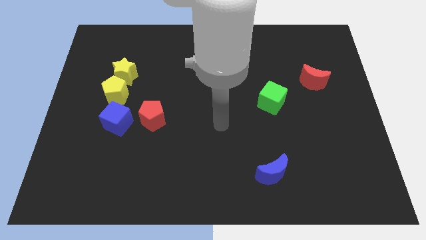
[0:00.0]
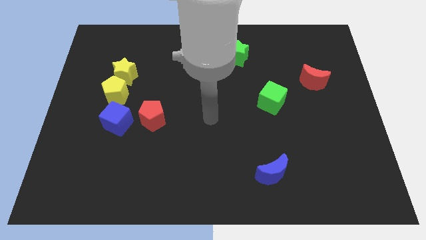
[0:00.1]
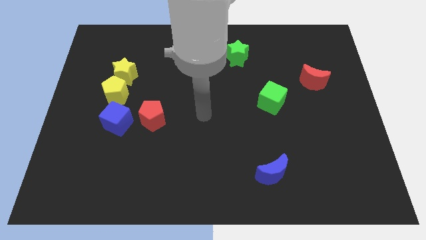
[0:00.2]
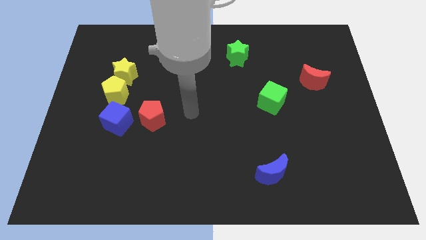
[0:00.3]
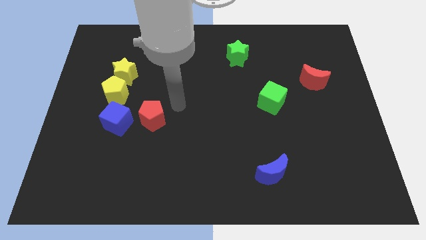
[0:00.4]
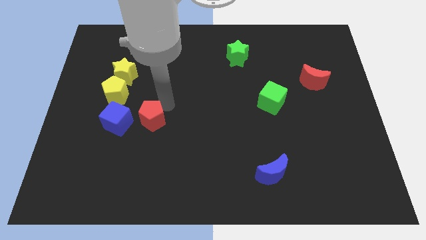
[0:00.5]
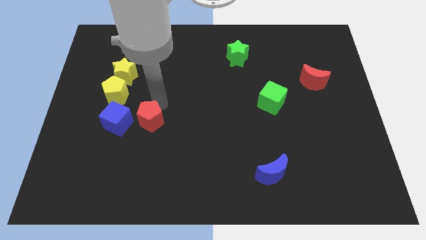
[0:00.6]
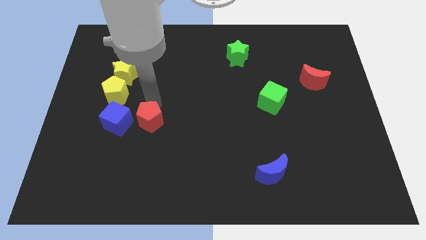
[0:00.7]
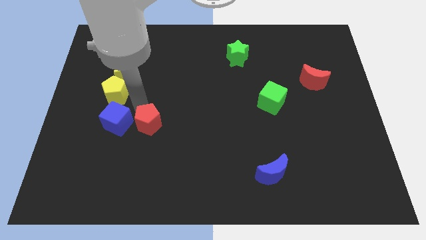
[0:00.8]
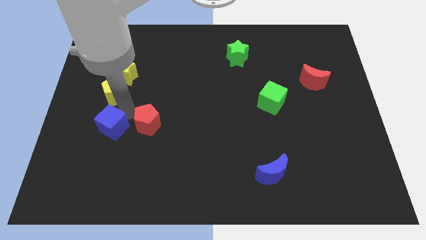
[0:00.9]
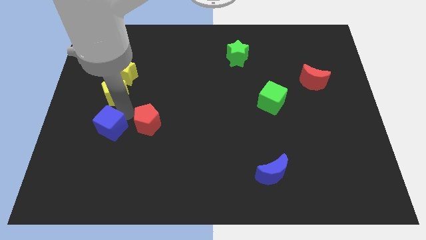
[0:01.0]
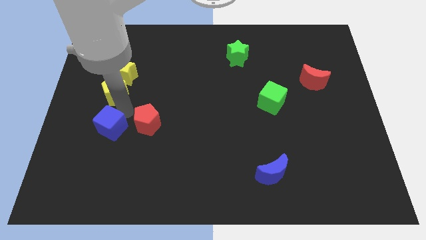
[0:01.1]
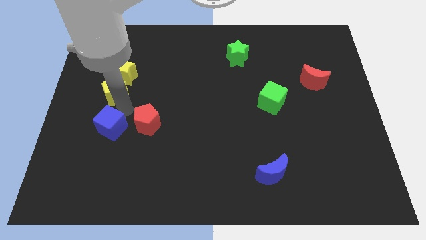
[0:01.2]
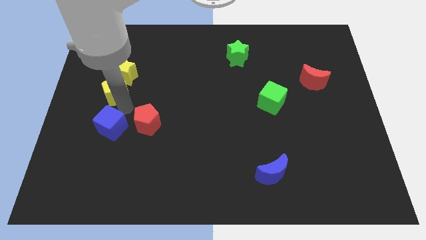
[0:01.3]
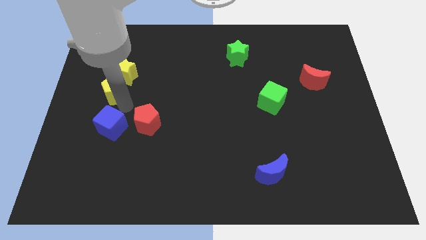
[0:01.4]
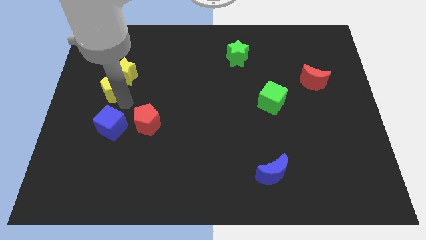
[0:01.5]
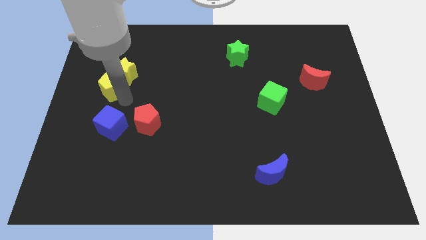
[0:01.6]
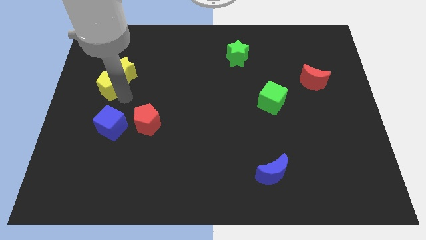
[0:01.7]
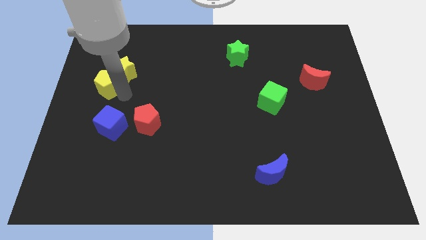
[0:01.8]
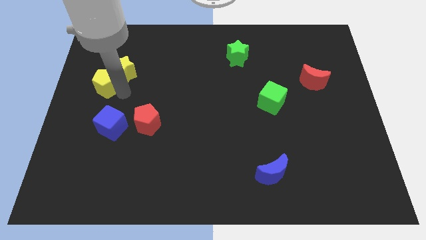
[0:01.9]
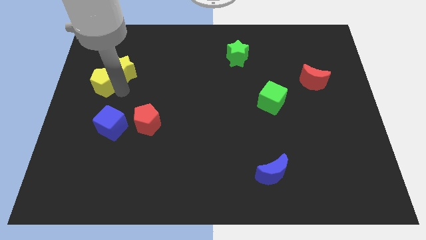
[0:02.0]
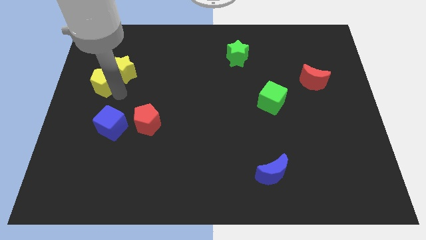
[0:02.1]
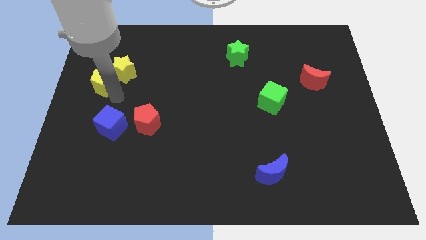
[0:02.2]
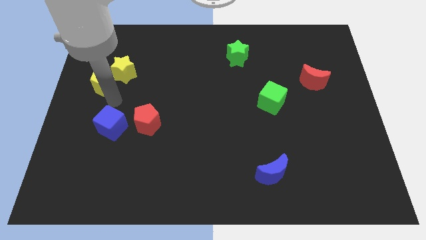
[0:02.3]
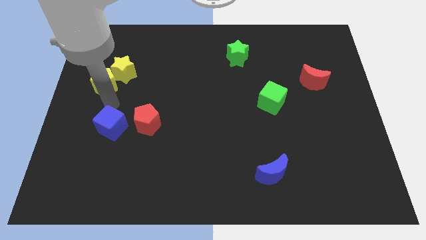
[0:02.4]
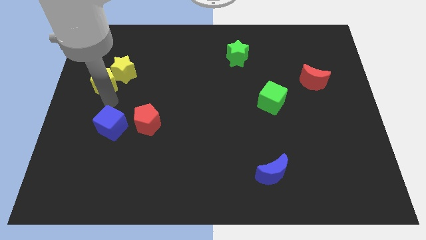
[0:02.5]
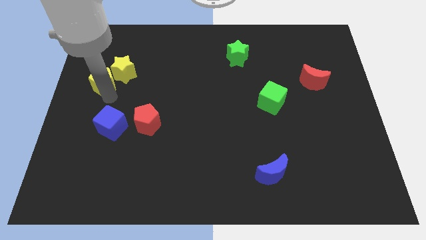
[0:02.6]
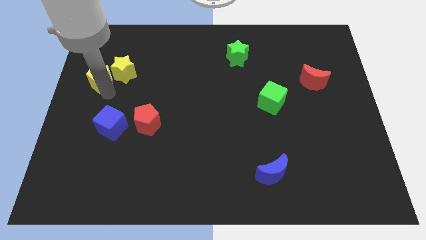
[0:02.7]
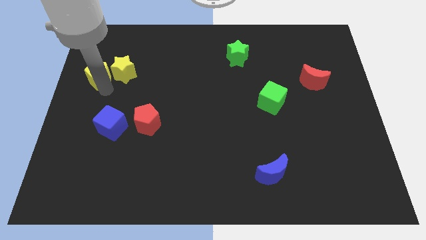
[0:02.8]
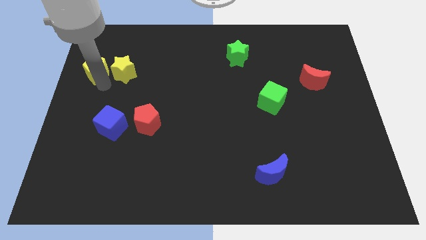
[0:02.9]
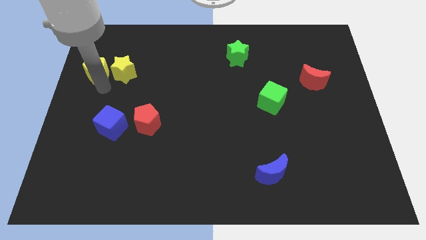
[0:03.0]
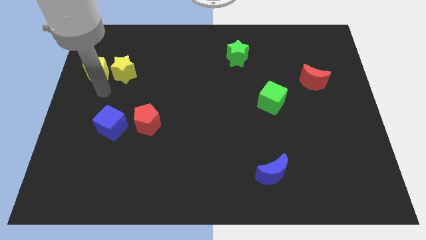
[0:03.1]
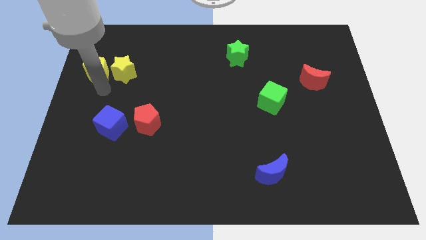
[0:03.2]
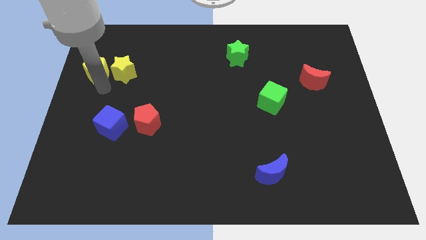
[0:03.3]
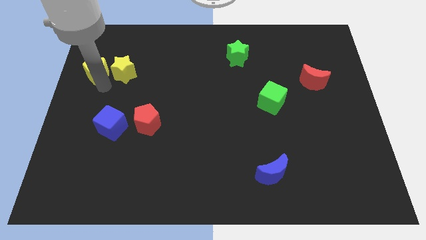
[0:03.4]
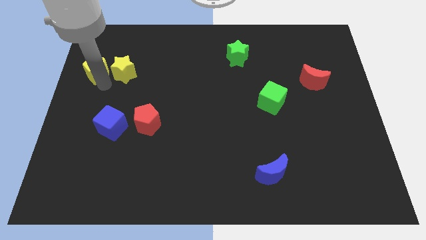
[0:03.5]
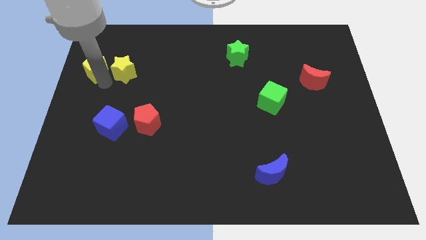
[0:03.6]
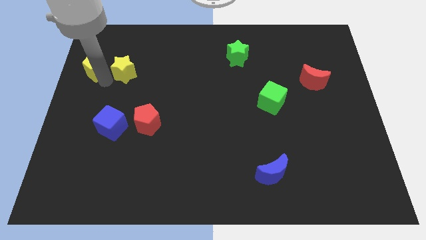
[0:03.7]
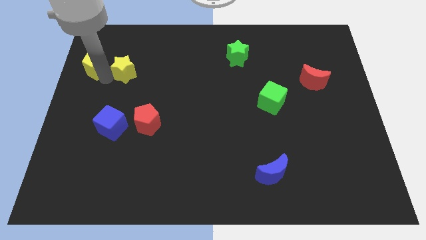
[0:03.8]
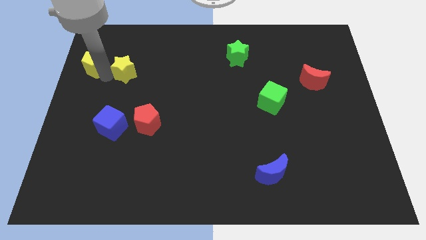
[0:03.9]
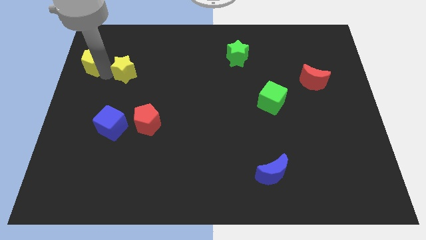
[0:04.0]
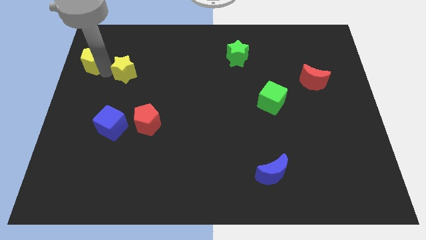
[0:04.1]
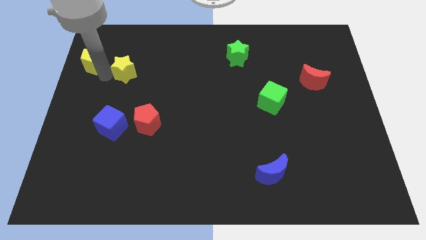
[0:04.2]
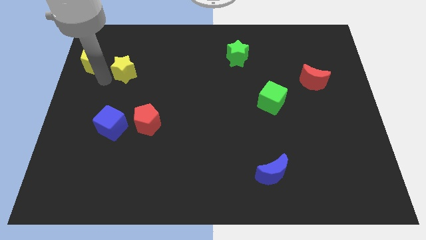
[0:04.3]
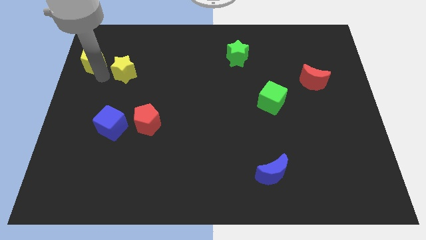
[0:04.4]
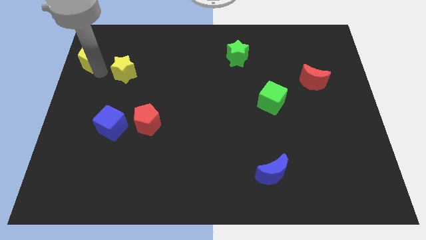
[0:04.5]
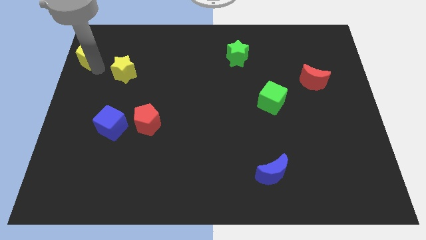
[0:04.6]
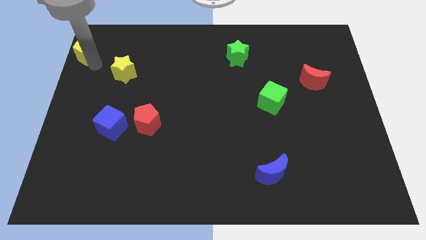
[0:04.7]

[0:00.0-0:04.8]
put the yellow pentagon to the top left

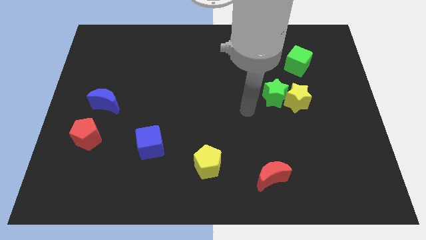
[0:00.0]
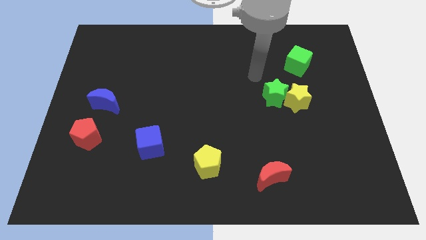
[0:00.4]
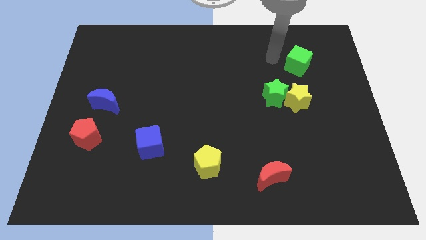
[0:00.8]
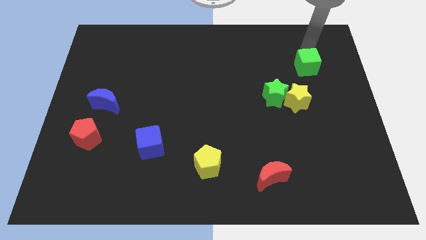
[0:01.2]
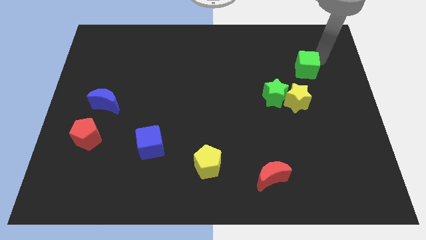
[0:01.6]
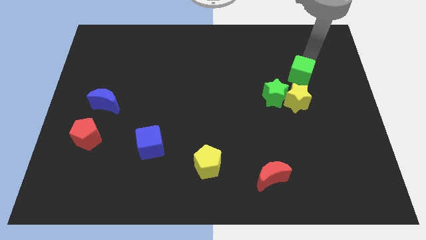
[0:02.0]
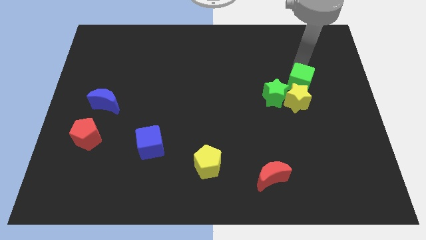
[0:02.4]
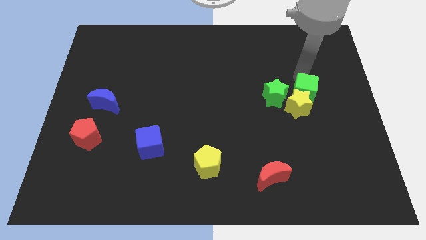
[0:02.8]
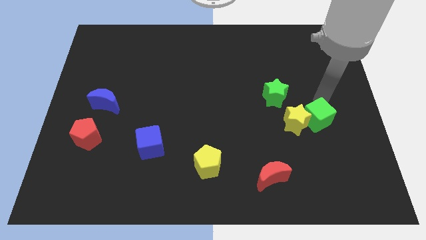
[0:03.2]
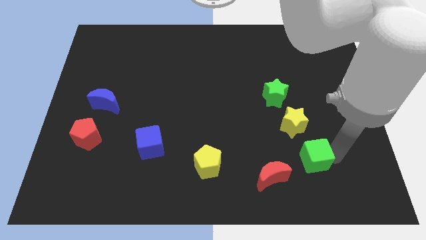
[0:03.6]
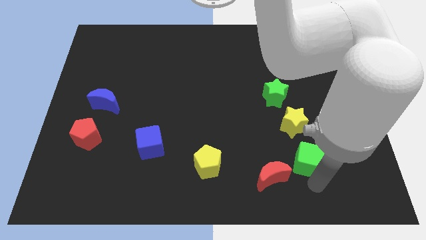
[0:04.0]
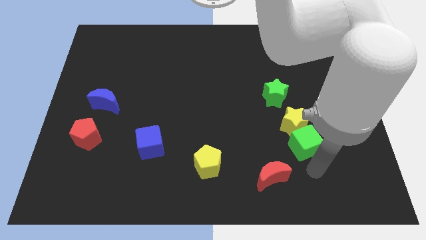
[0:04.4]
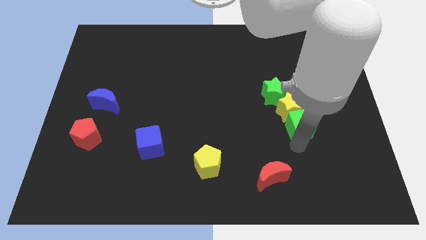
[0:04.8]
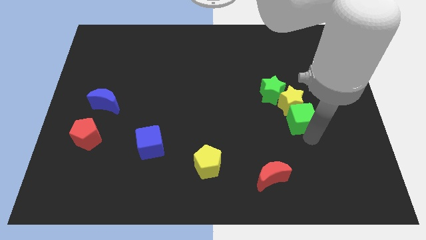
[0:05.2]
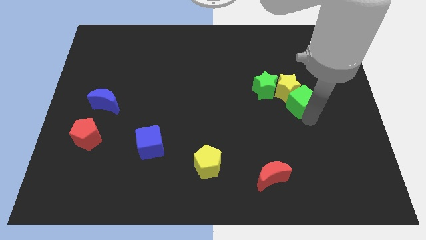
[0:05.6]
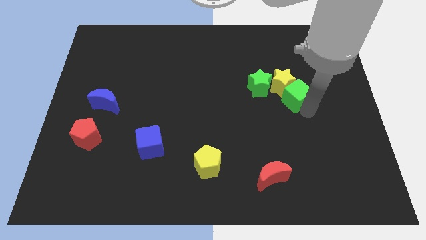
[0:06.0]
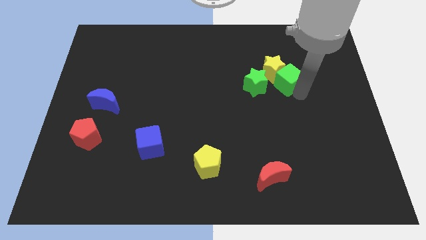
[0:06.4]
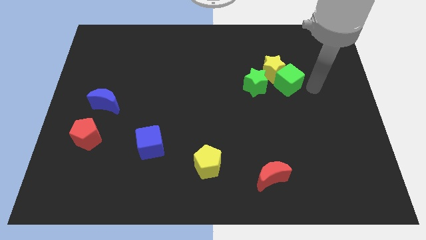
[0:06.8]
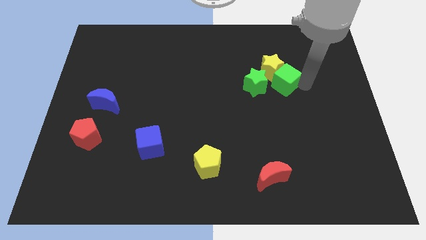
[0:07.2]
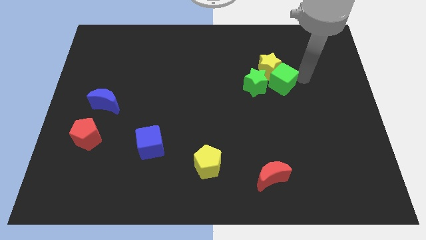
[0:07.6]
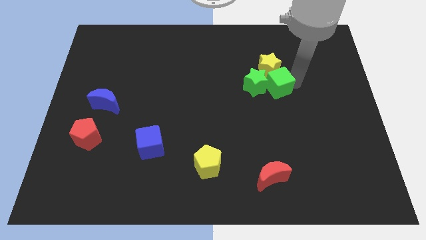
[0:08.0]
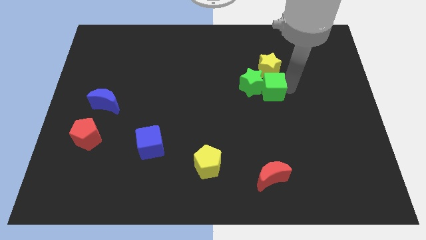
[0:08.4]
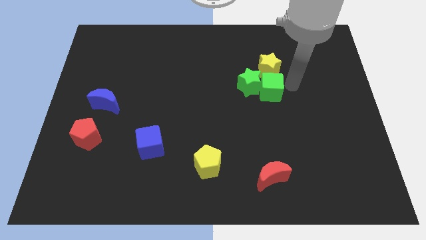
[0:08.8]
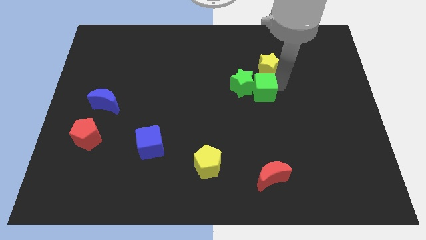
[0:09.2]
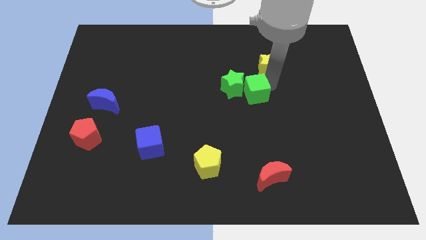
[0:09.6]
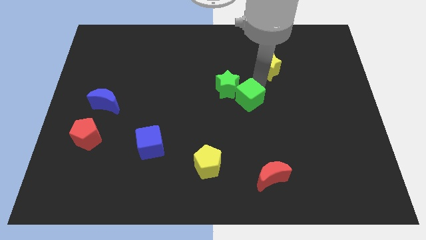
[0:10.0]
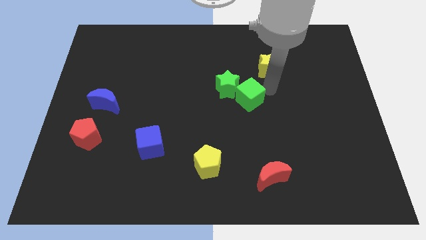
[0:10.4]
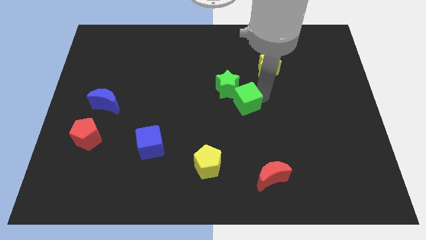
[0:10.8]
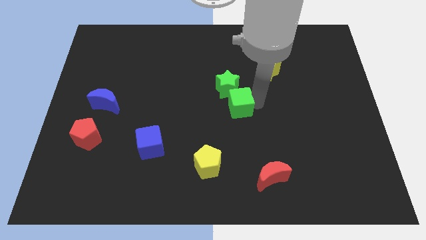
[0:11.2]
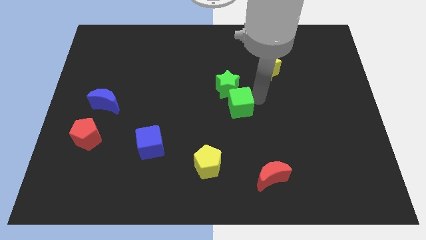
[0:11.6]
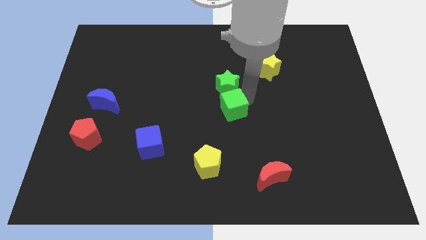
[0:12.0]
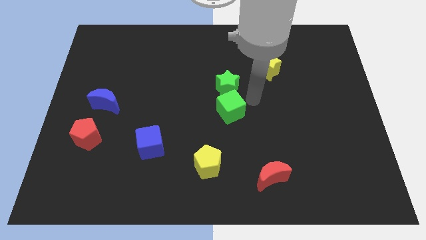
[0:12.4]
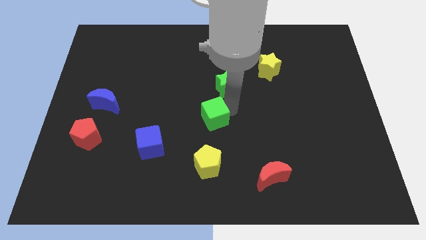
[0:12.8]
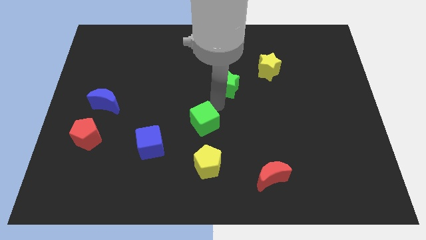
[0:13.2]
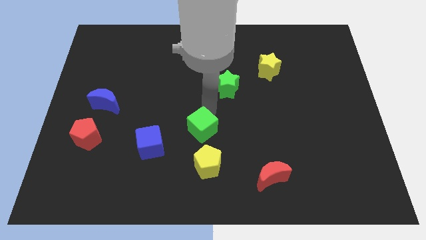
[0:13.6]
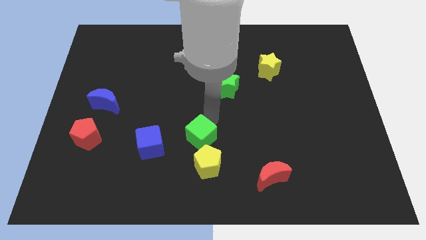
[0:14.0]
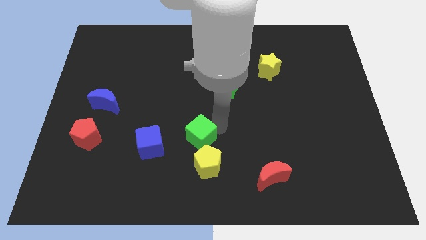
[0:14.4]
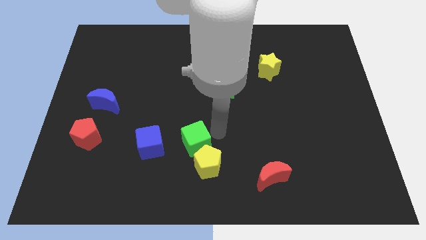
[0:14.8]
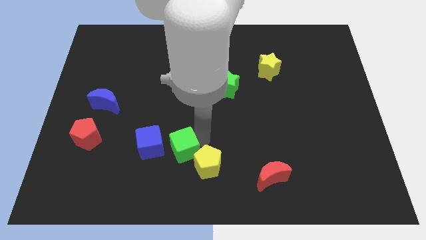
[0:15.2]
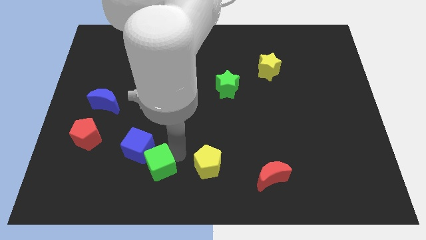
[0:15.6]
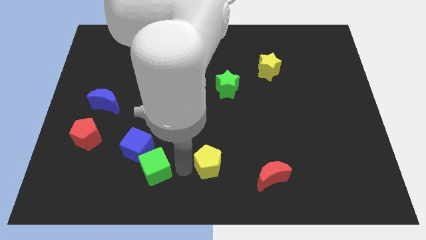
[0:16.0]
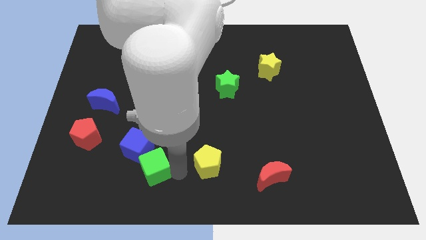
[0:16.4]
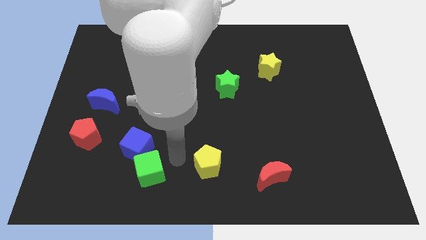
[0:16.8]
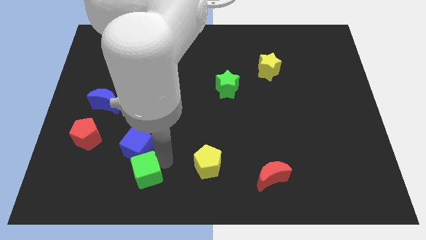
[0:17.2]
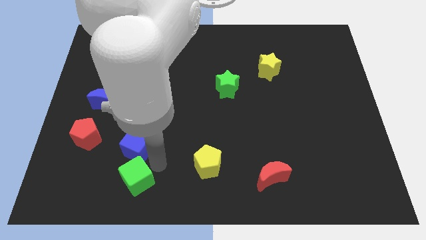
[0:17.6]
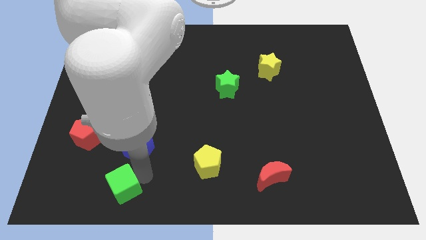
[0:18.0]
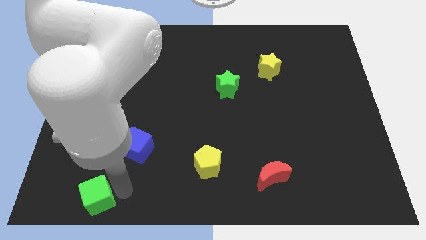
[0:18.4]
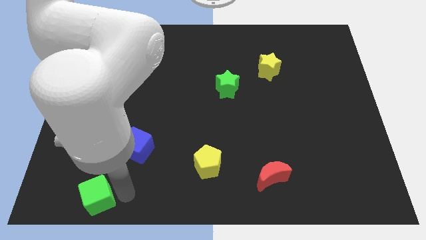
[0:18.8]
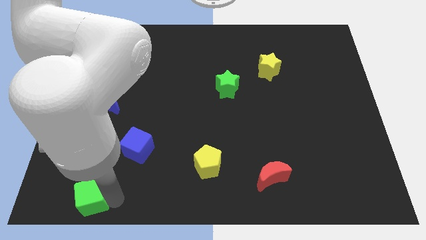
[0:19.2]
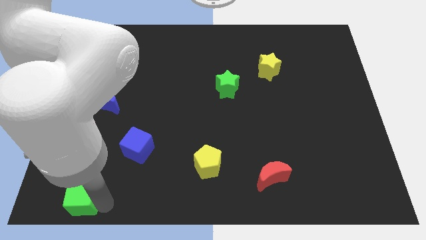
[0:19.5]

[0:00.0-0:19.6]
move the green cube to the bottom left of the board
